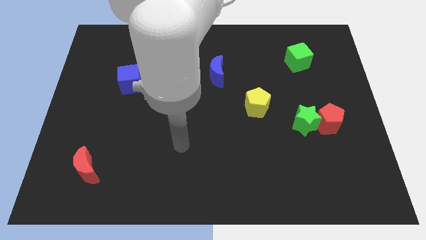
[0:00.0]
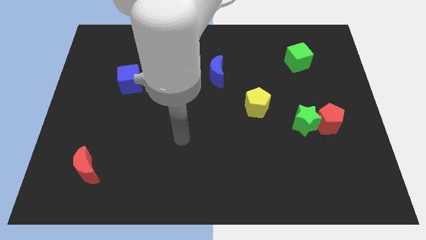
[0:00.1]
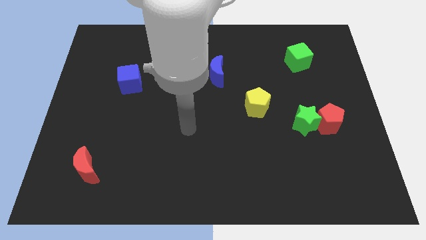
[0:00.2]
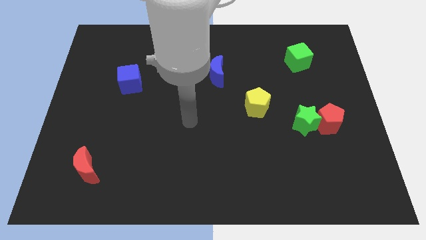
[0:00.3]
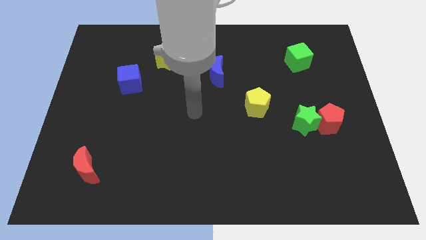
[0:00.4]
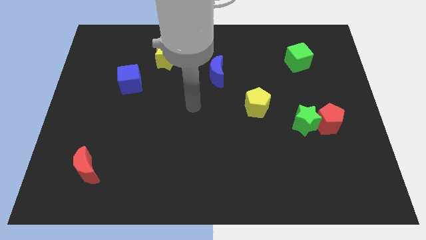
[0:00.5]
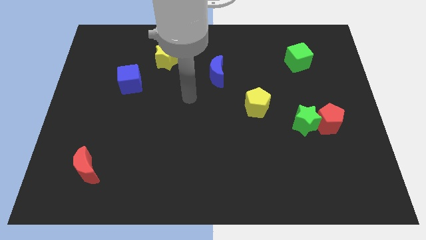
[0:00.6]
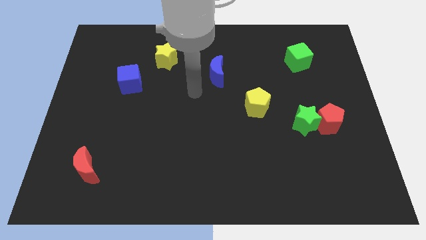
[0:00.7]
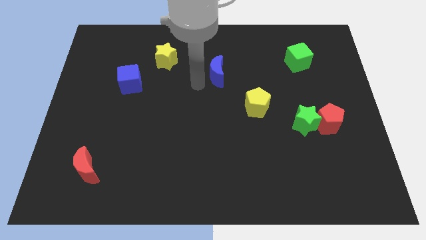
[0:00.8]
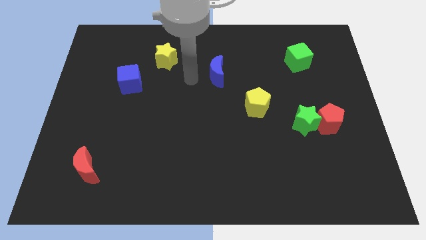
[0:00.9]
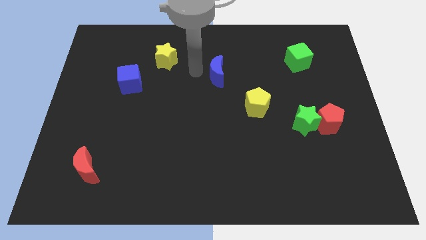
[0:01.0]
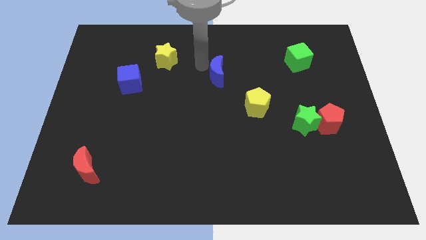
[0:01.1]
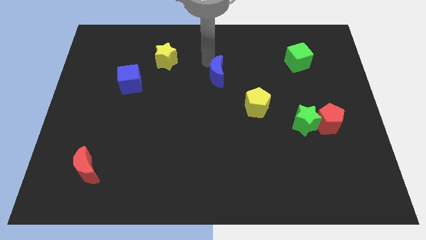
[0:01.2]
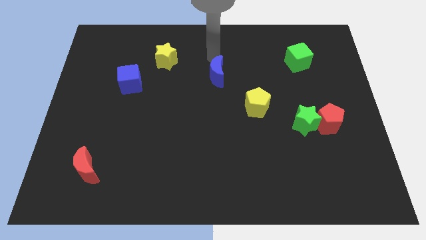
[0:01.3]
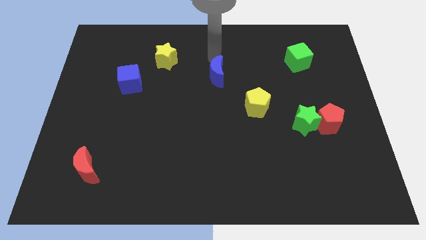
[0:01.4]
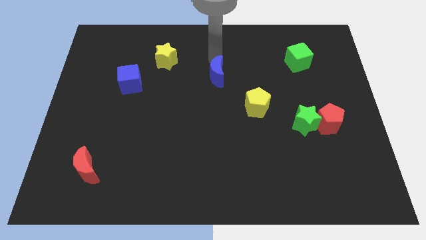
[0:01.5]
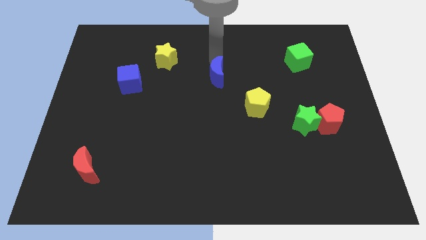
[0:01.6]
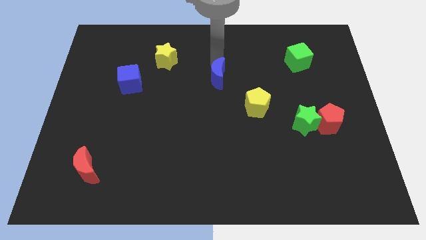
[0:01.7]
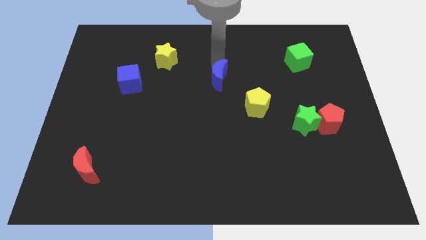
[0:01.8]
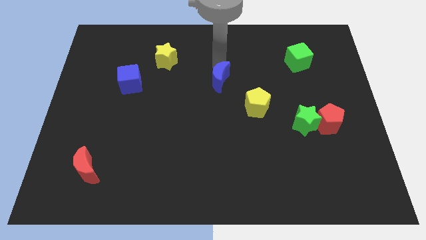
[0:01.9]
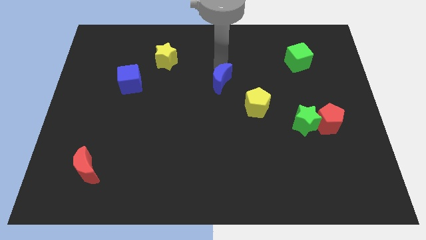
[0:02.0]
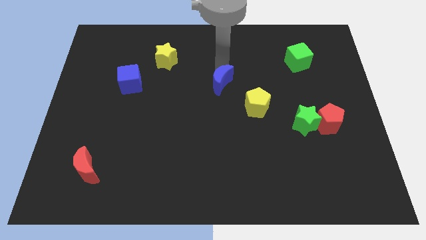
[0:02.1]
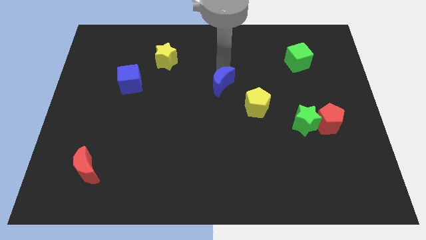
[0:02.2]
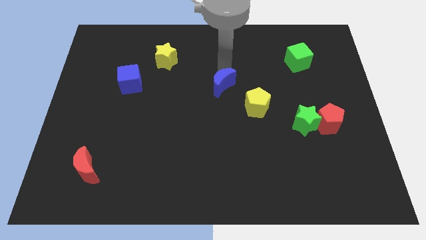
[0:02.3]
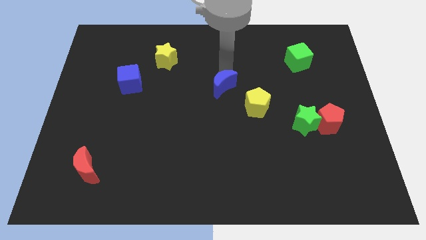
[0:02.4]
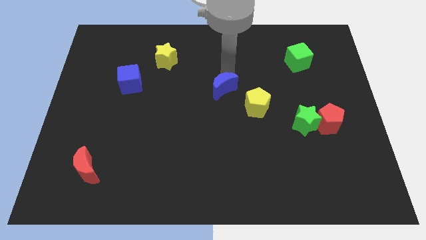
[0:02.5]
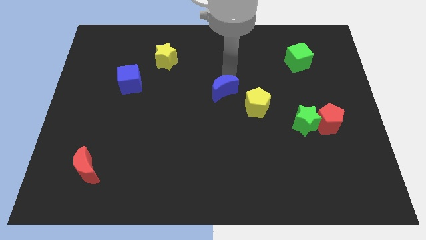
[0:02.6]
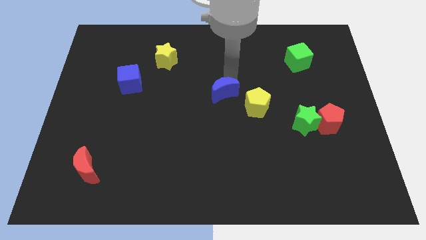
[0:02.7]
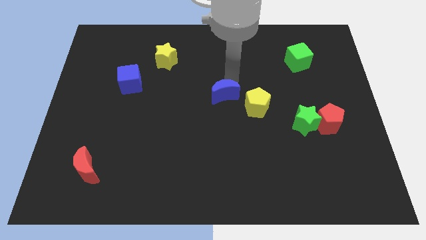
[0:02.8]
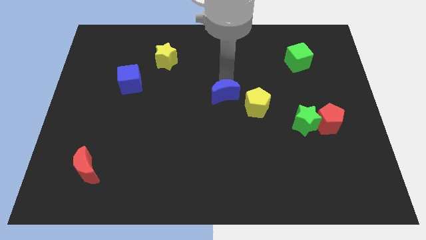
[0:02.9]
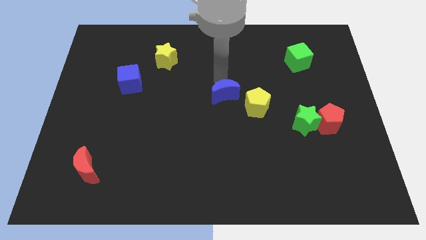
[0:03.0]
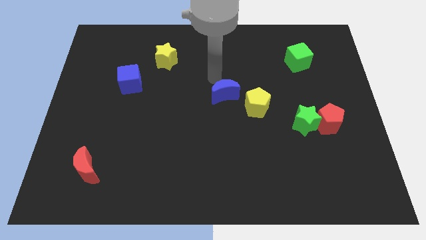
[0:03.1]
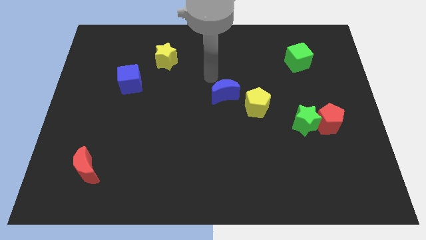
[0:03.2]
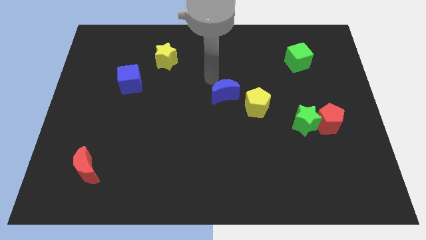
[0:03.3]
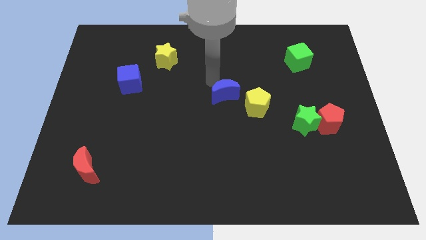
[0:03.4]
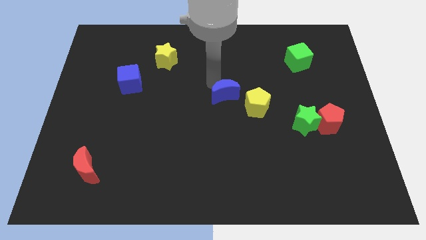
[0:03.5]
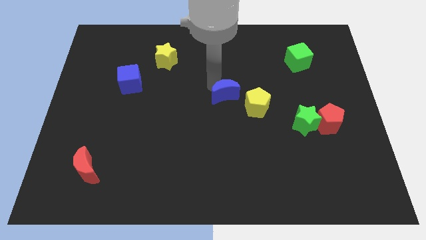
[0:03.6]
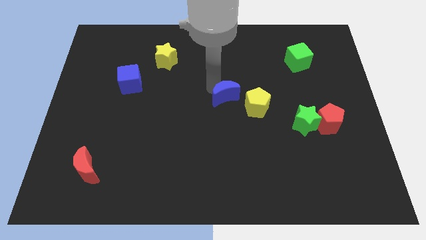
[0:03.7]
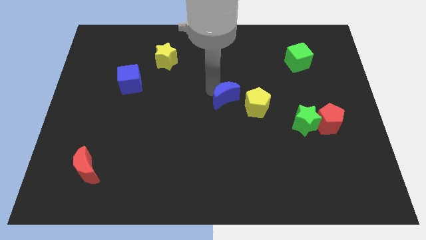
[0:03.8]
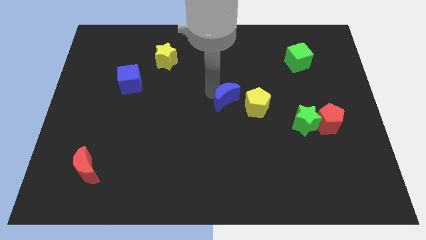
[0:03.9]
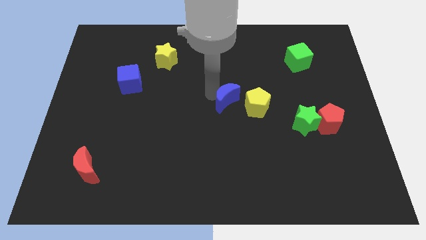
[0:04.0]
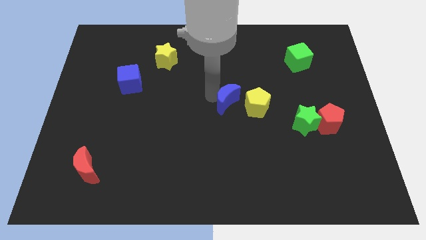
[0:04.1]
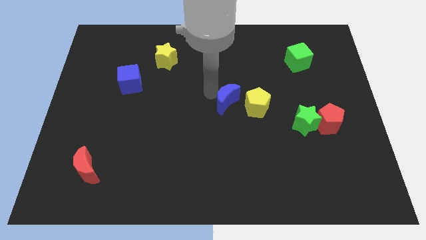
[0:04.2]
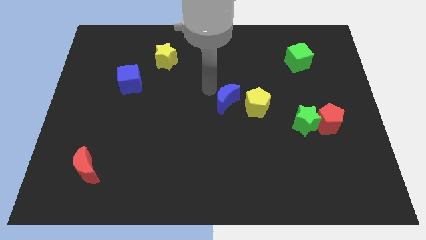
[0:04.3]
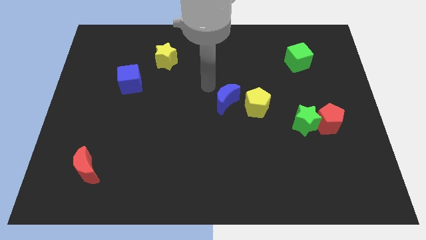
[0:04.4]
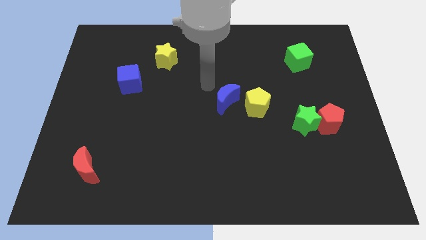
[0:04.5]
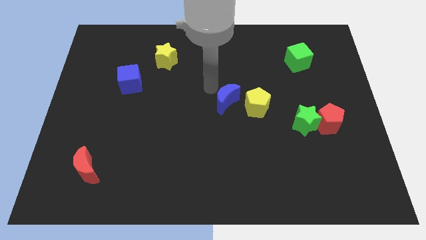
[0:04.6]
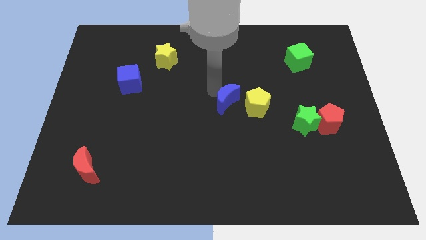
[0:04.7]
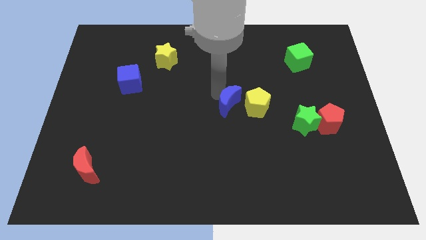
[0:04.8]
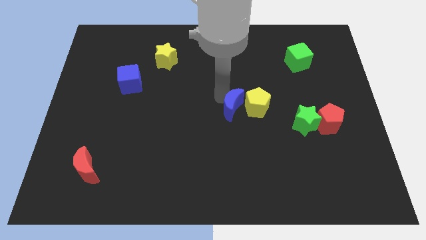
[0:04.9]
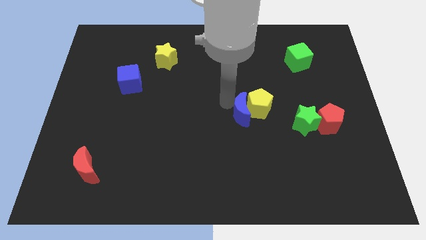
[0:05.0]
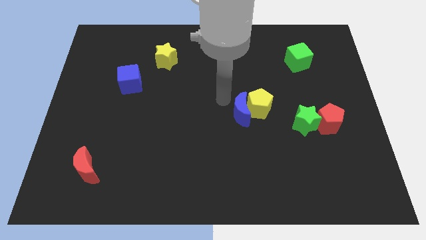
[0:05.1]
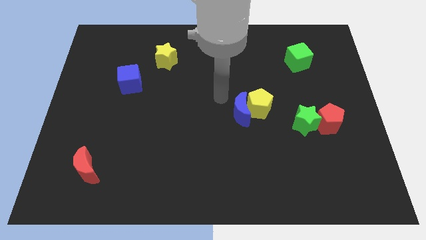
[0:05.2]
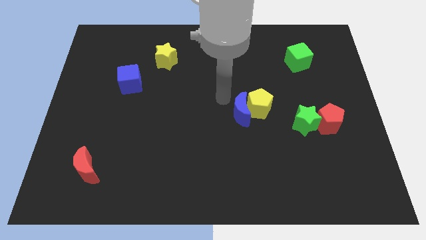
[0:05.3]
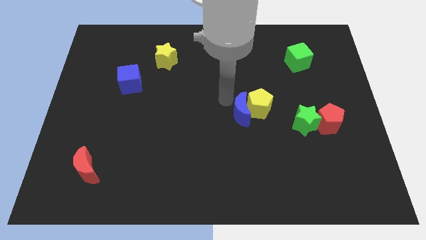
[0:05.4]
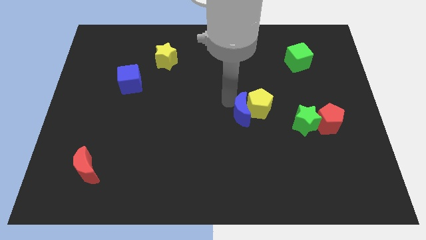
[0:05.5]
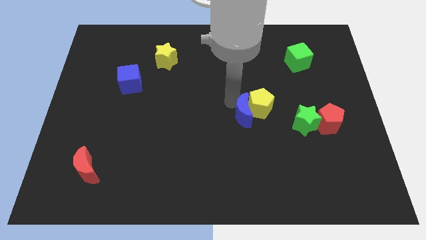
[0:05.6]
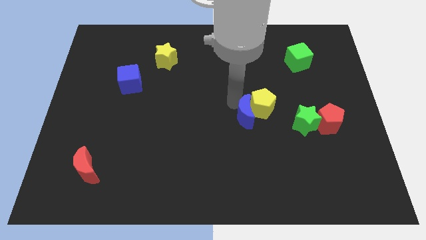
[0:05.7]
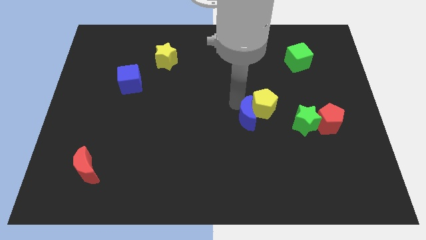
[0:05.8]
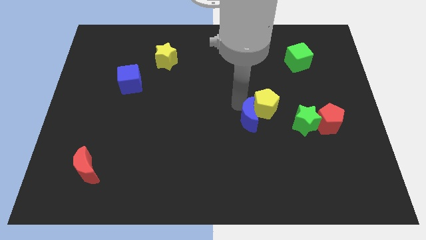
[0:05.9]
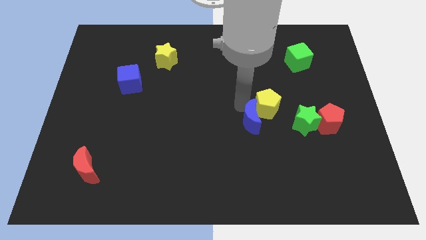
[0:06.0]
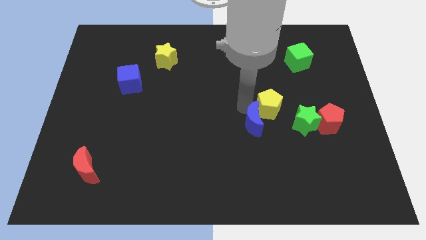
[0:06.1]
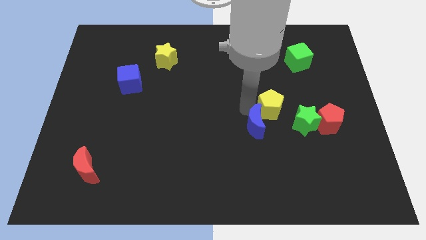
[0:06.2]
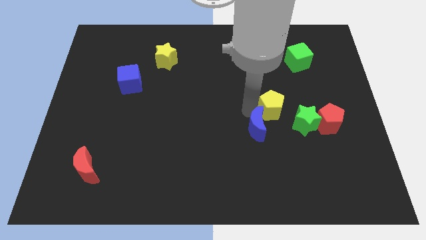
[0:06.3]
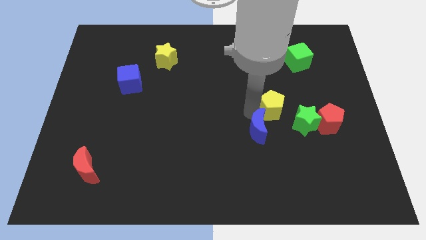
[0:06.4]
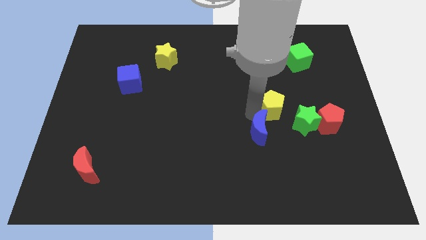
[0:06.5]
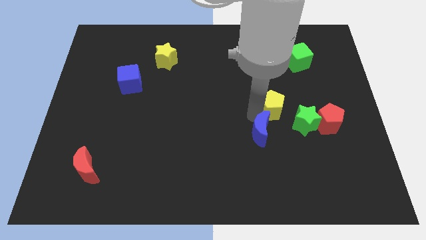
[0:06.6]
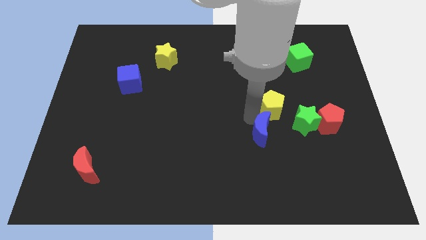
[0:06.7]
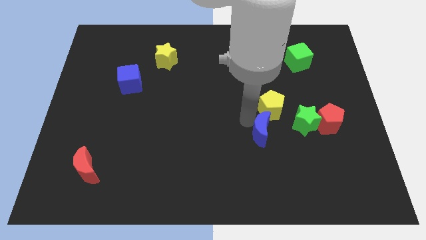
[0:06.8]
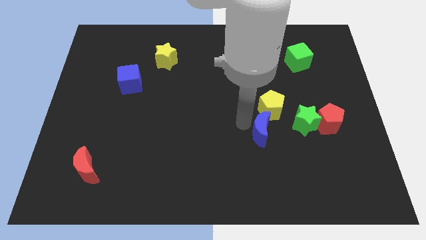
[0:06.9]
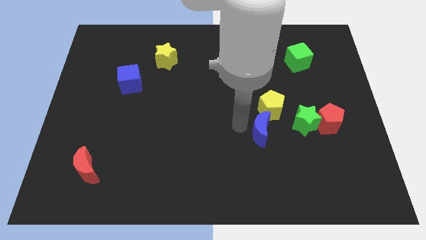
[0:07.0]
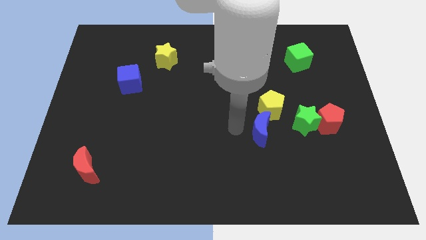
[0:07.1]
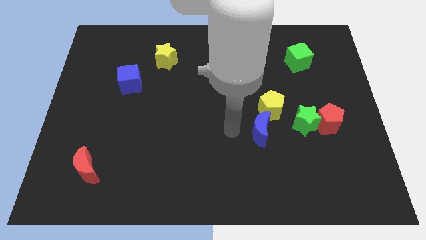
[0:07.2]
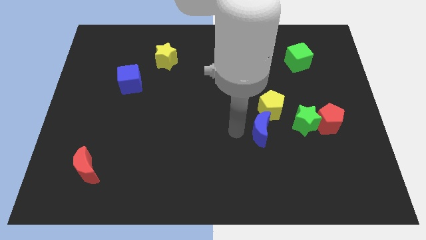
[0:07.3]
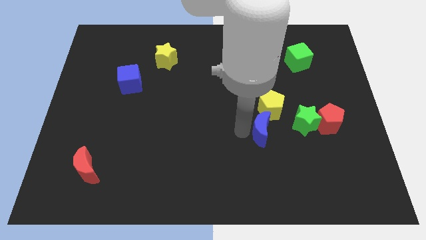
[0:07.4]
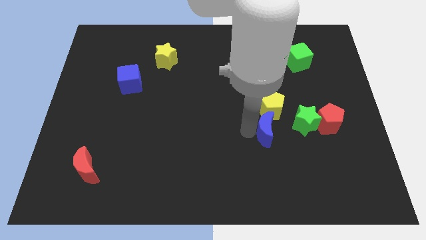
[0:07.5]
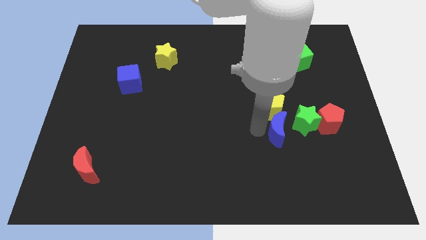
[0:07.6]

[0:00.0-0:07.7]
slide the blue moon downwards and to the right

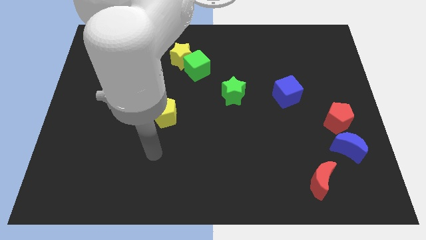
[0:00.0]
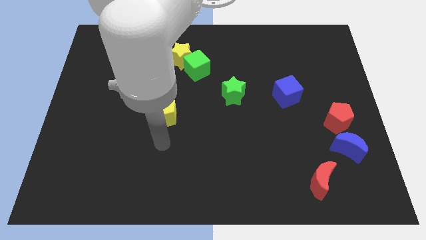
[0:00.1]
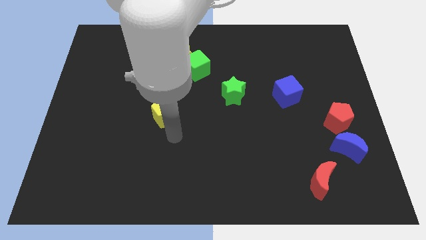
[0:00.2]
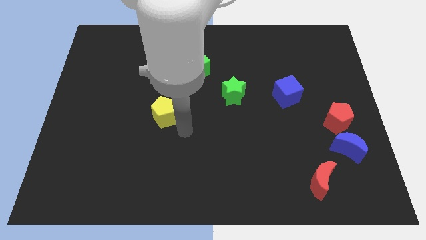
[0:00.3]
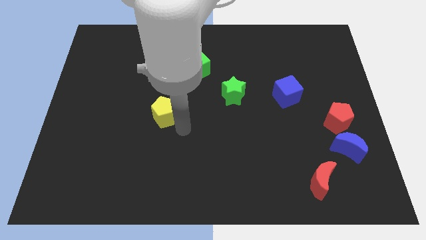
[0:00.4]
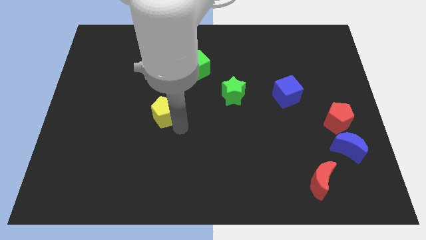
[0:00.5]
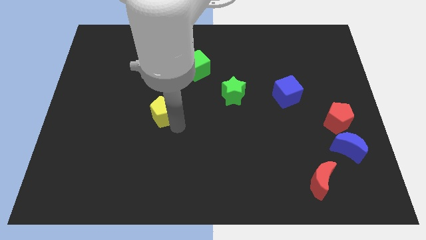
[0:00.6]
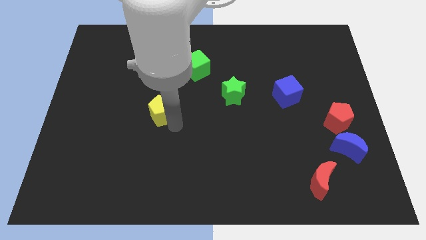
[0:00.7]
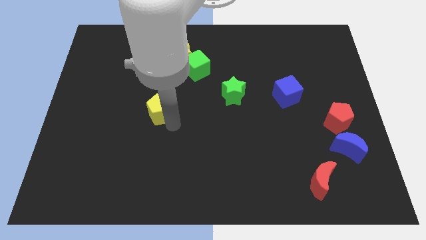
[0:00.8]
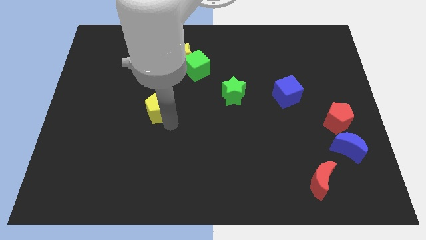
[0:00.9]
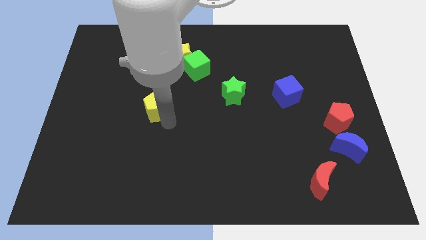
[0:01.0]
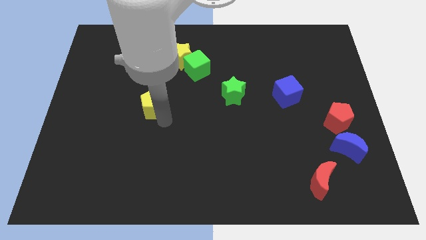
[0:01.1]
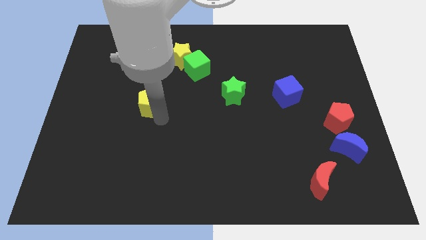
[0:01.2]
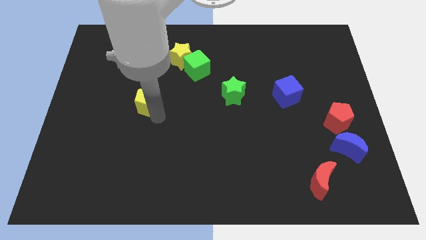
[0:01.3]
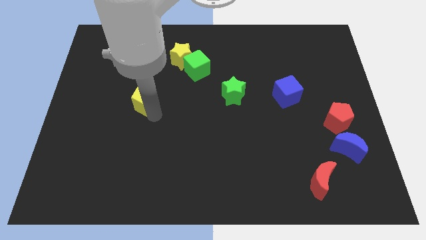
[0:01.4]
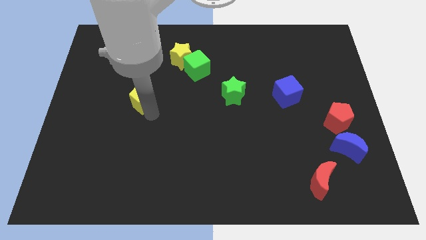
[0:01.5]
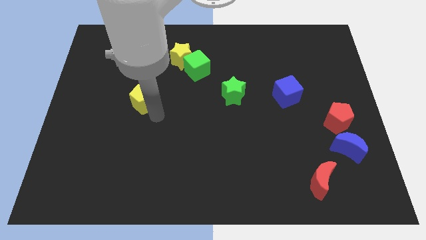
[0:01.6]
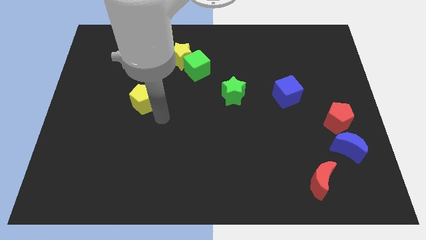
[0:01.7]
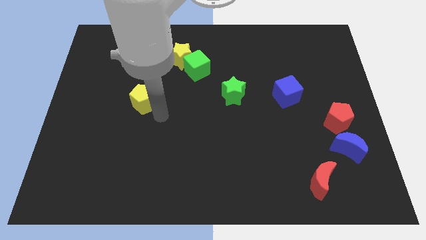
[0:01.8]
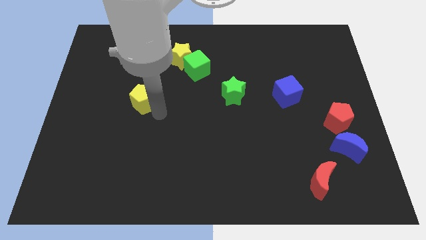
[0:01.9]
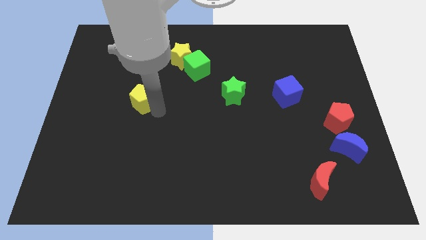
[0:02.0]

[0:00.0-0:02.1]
slide the yellow pentagon somewhat upwards and then left
